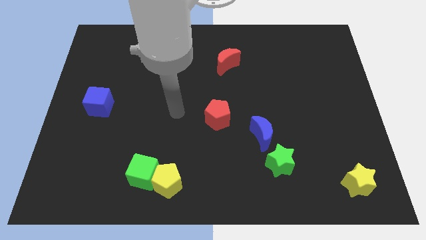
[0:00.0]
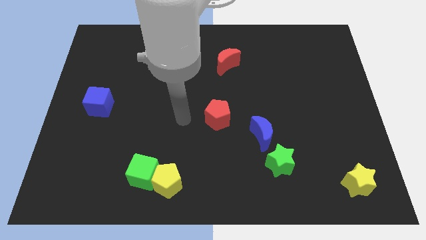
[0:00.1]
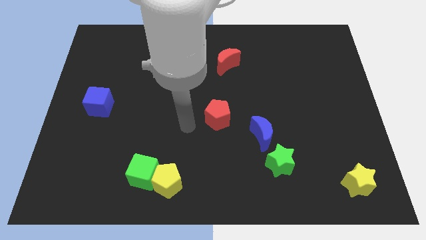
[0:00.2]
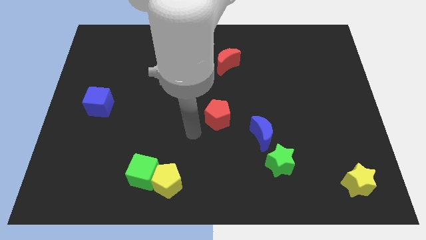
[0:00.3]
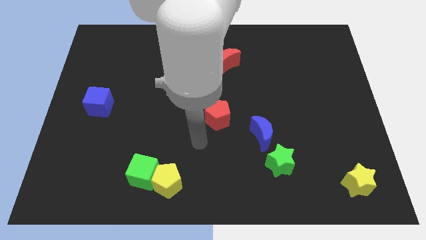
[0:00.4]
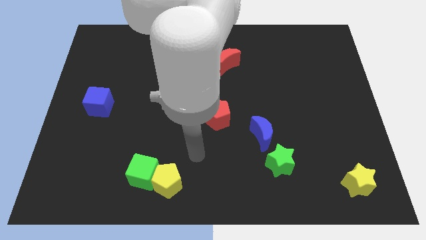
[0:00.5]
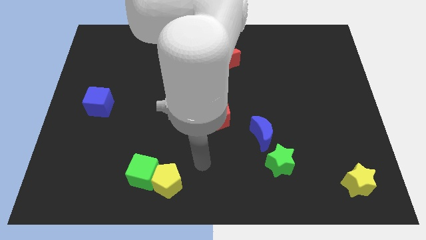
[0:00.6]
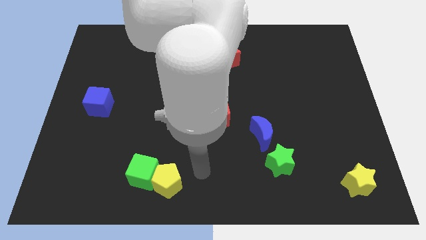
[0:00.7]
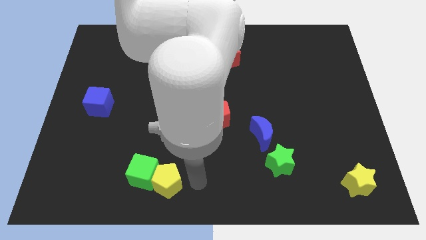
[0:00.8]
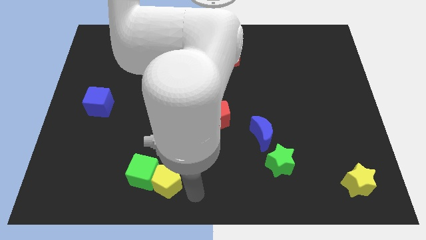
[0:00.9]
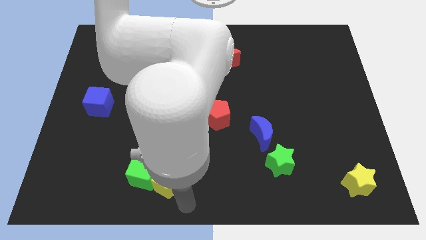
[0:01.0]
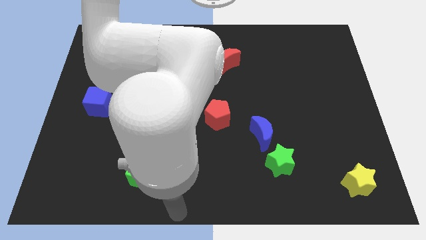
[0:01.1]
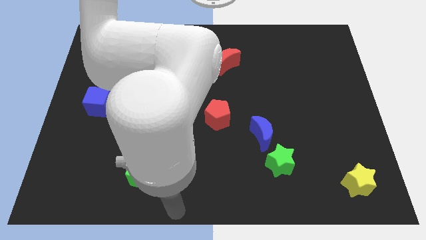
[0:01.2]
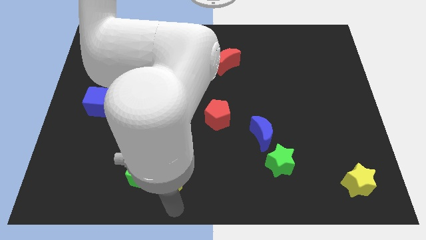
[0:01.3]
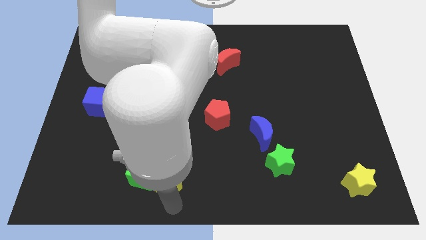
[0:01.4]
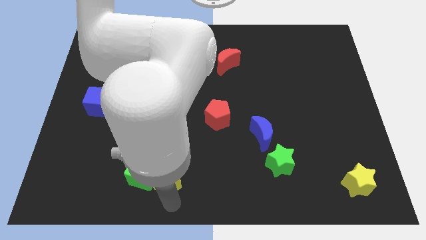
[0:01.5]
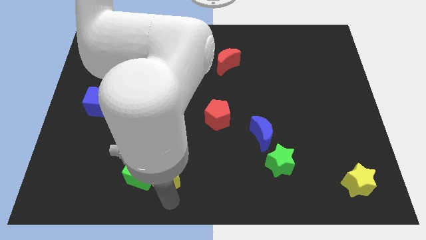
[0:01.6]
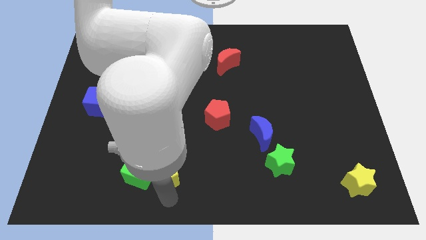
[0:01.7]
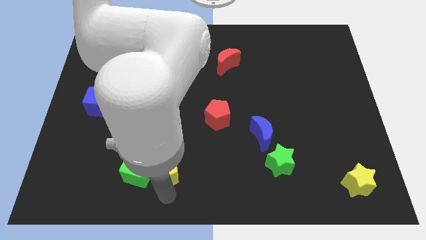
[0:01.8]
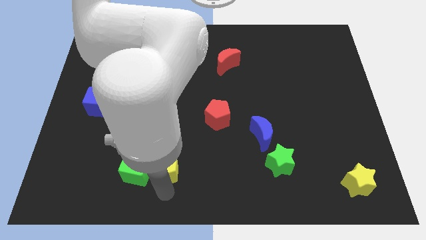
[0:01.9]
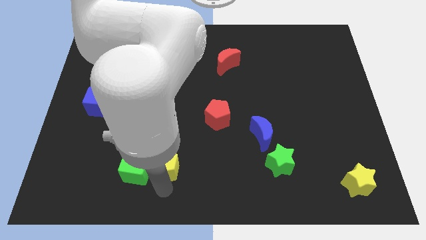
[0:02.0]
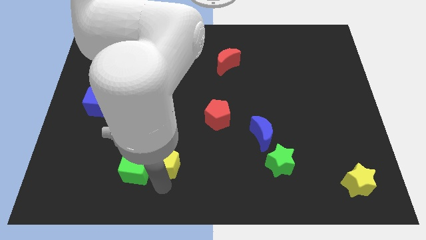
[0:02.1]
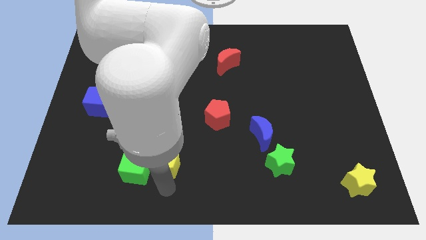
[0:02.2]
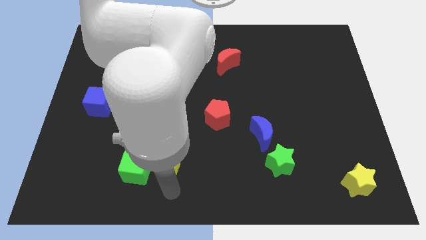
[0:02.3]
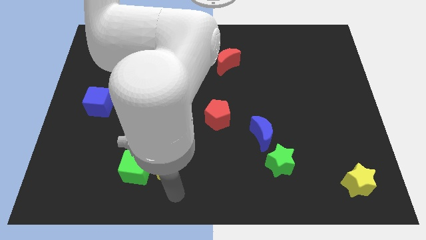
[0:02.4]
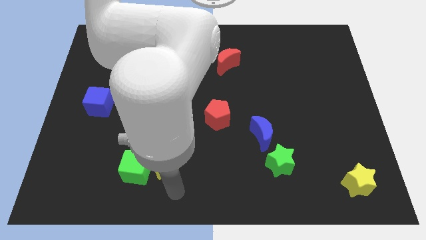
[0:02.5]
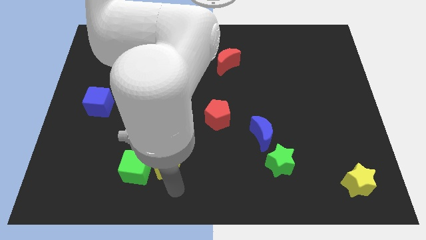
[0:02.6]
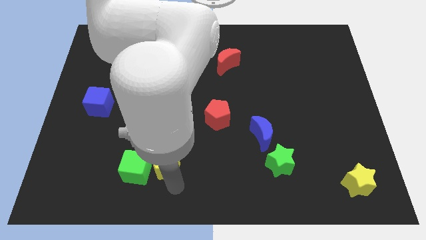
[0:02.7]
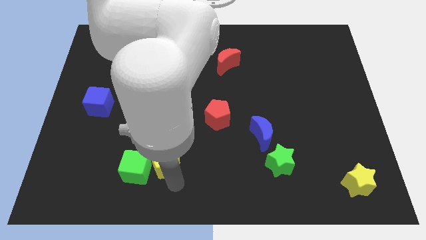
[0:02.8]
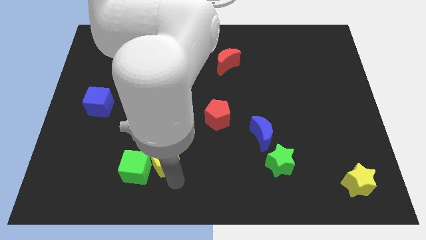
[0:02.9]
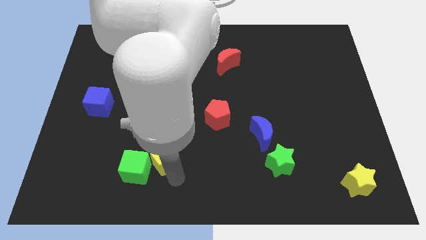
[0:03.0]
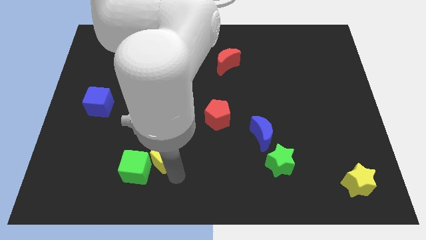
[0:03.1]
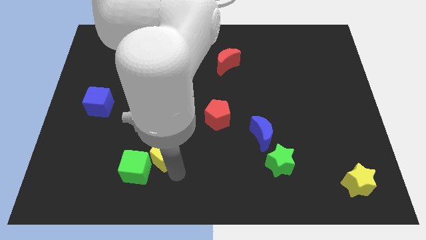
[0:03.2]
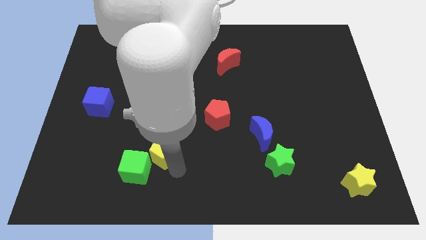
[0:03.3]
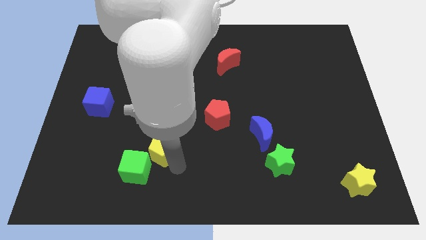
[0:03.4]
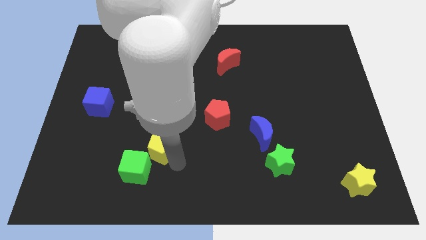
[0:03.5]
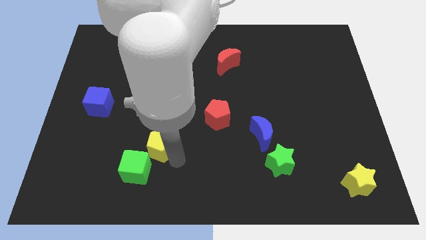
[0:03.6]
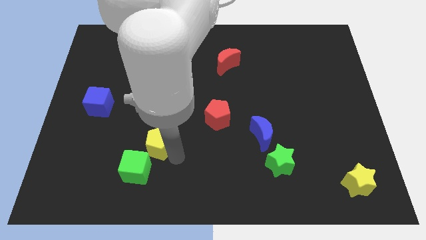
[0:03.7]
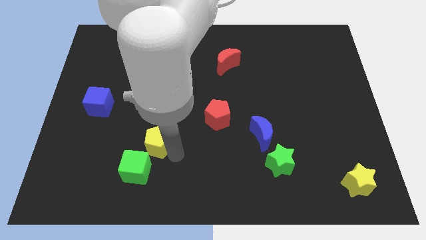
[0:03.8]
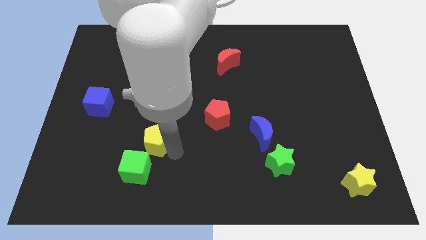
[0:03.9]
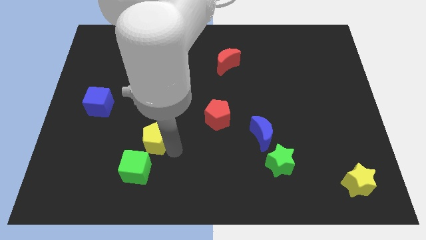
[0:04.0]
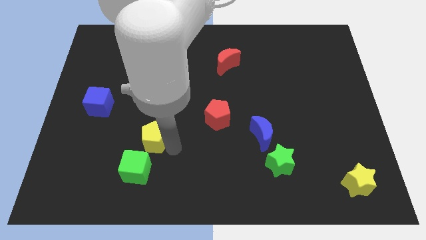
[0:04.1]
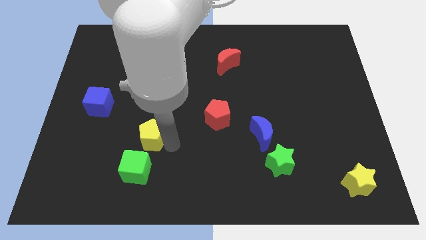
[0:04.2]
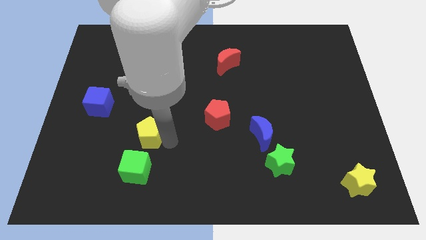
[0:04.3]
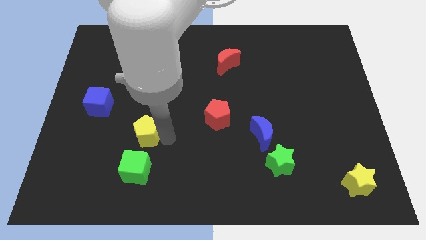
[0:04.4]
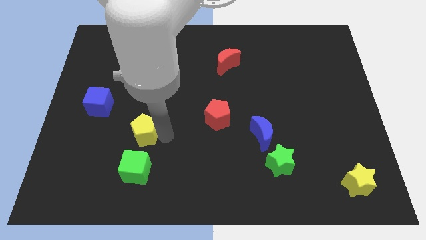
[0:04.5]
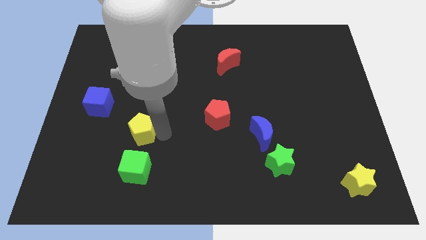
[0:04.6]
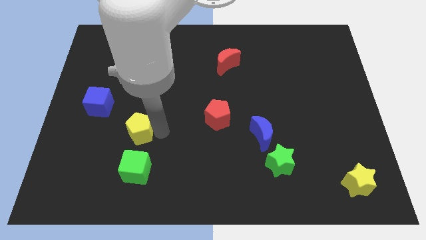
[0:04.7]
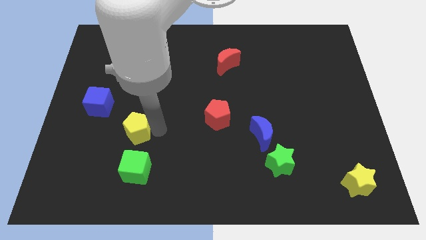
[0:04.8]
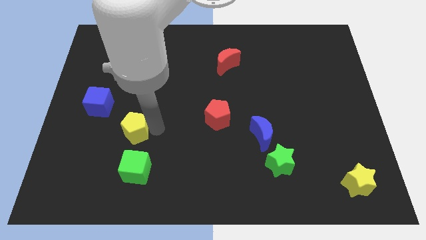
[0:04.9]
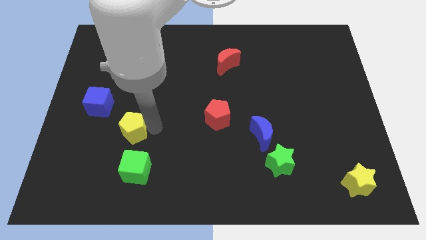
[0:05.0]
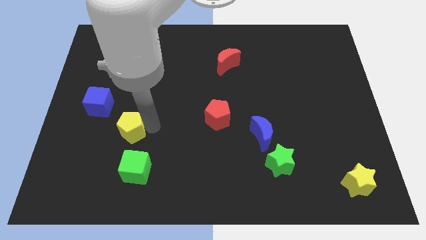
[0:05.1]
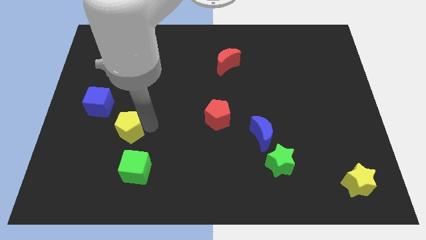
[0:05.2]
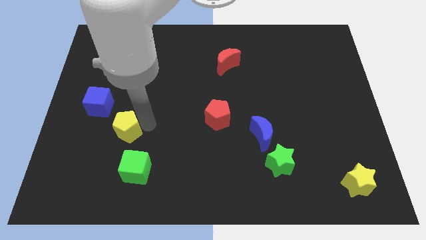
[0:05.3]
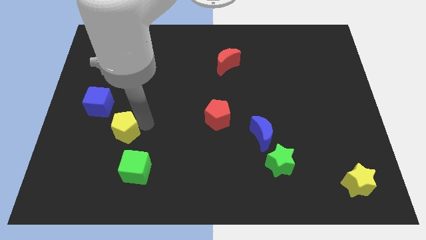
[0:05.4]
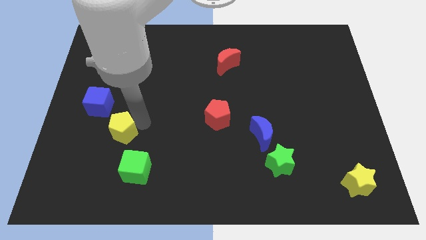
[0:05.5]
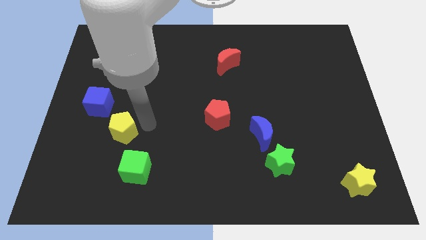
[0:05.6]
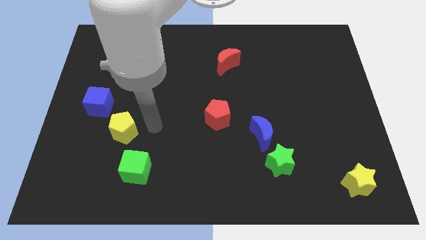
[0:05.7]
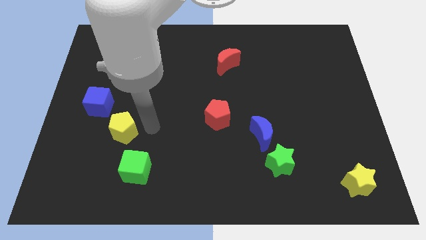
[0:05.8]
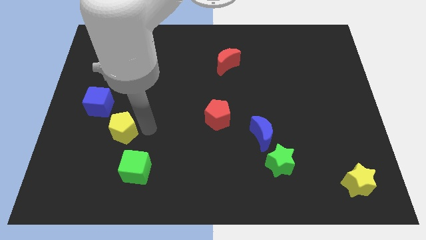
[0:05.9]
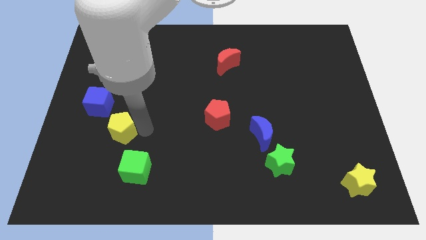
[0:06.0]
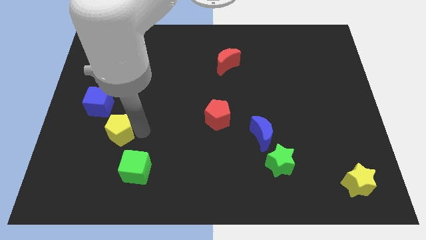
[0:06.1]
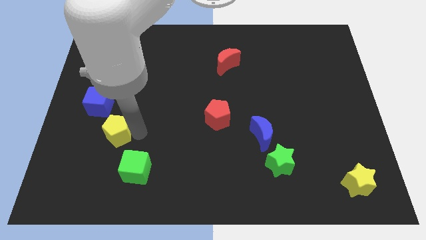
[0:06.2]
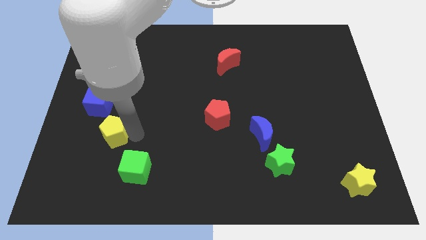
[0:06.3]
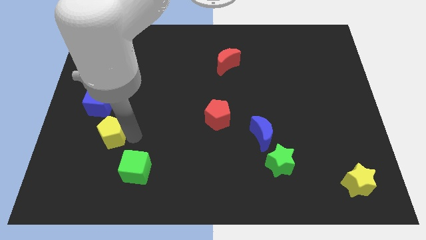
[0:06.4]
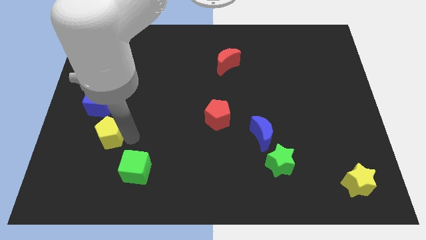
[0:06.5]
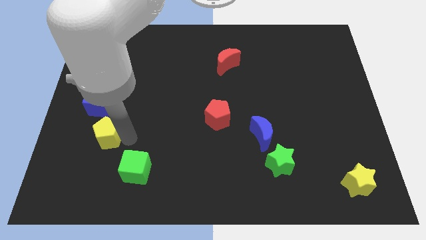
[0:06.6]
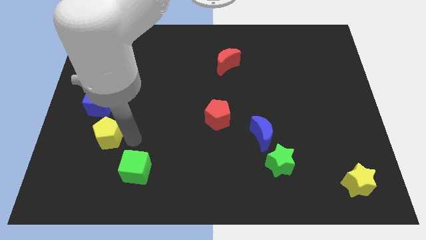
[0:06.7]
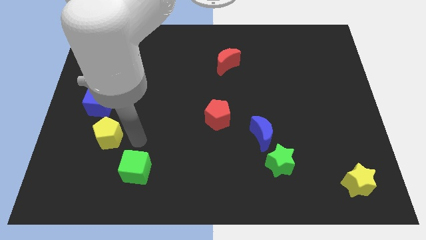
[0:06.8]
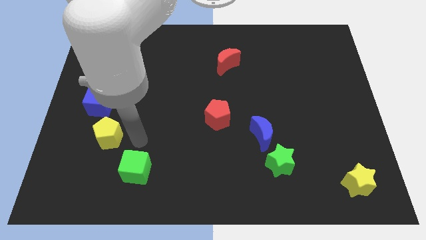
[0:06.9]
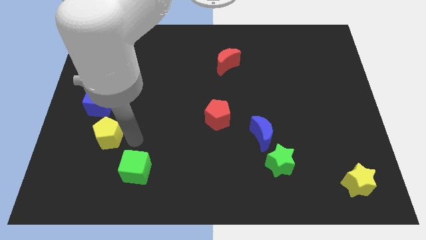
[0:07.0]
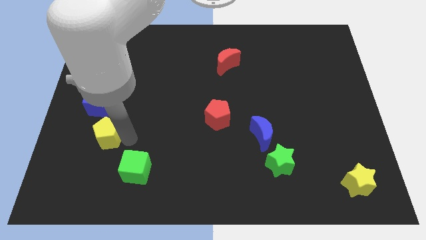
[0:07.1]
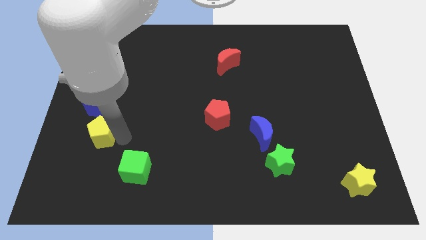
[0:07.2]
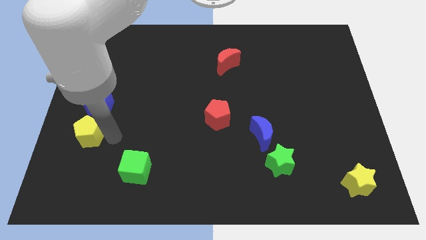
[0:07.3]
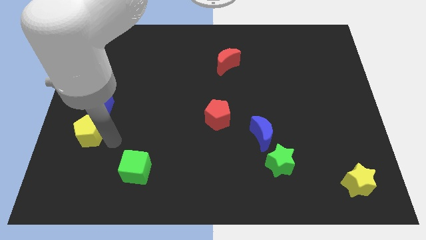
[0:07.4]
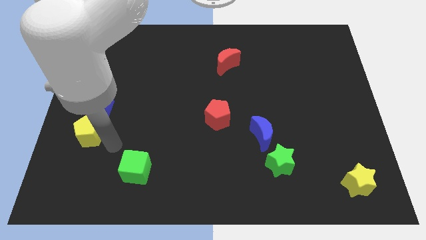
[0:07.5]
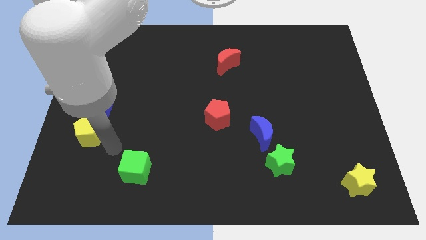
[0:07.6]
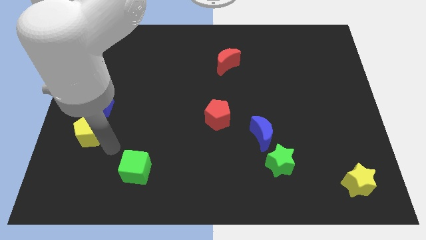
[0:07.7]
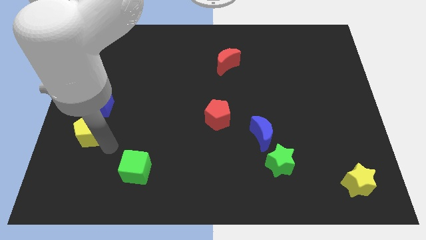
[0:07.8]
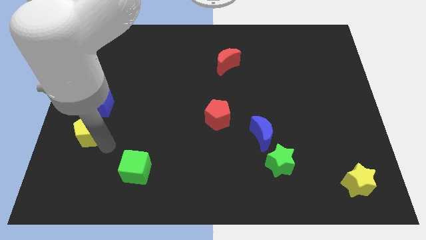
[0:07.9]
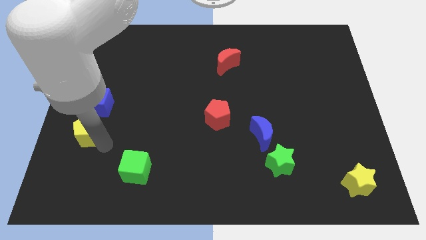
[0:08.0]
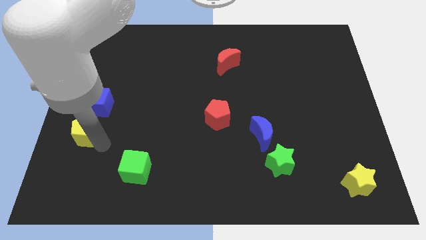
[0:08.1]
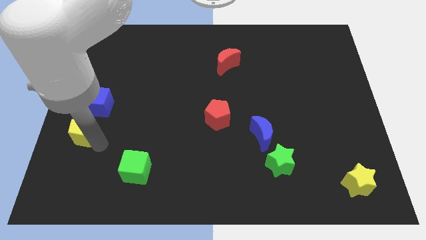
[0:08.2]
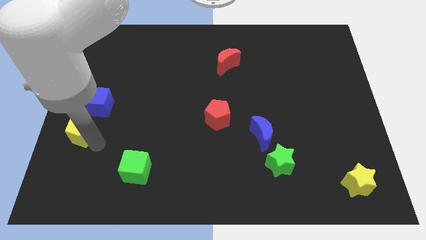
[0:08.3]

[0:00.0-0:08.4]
push the yellow pentagon to the center left
